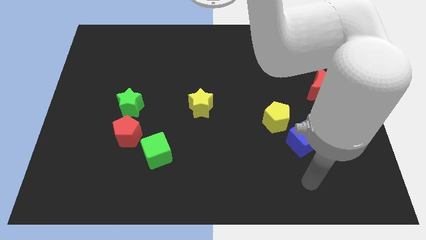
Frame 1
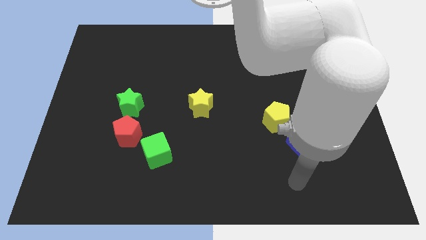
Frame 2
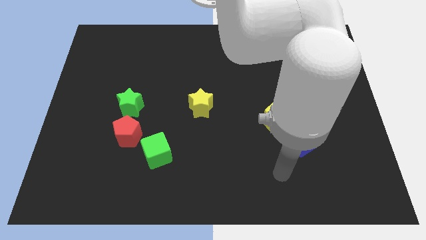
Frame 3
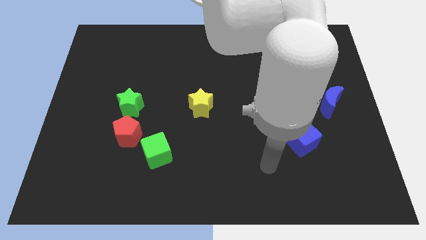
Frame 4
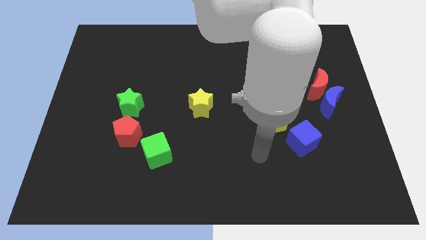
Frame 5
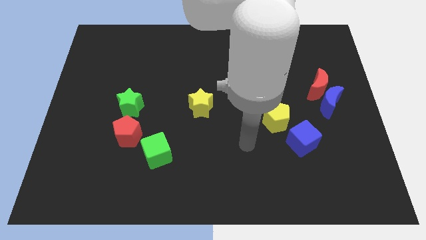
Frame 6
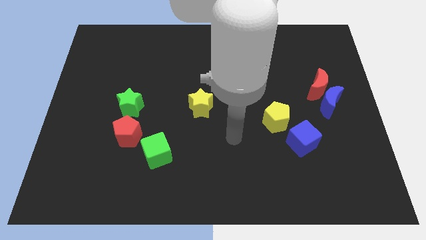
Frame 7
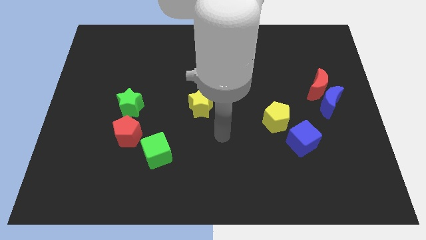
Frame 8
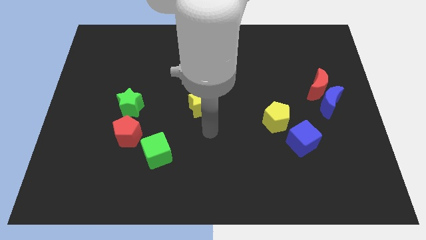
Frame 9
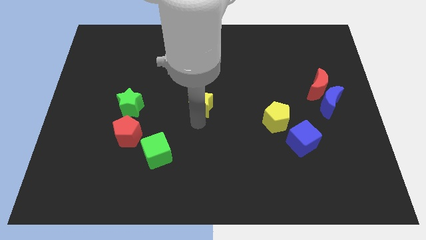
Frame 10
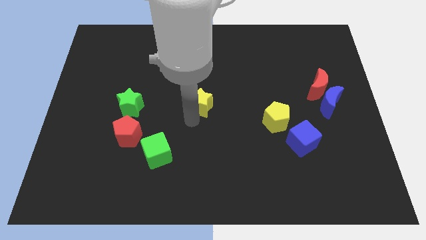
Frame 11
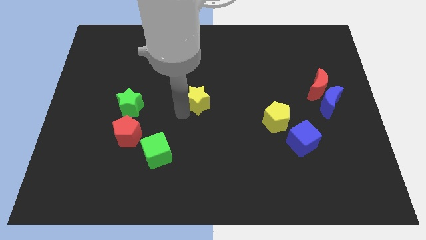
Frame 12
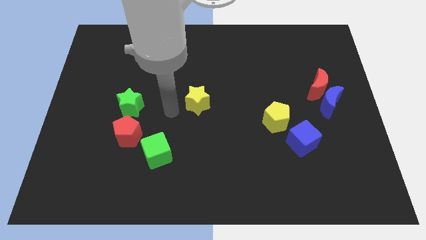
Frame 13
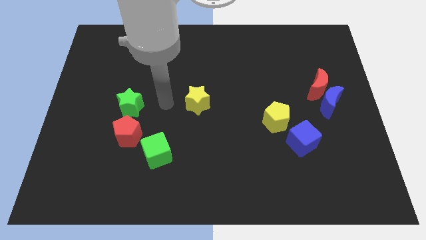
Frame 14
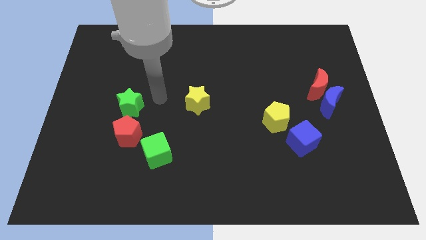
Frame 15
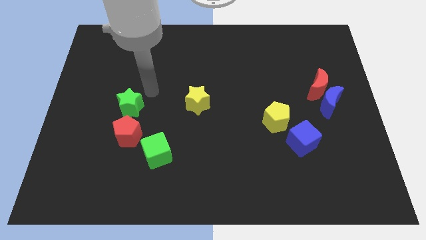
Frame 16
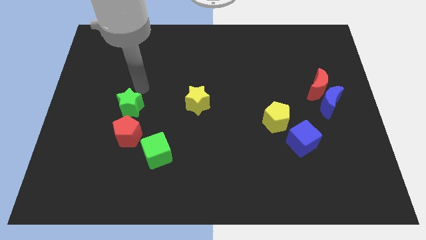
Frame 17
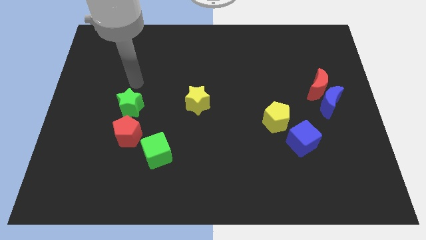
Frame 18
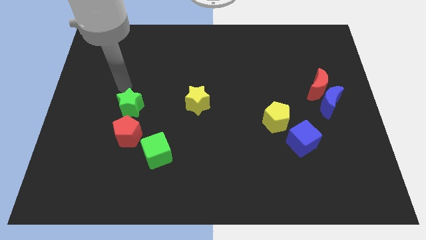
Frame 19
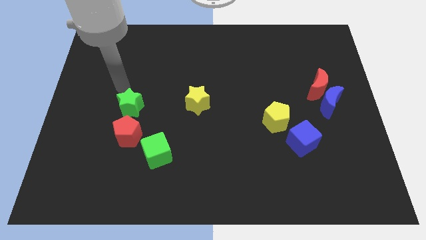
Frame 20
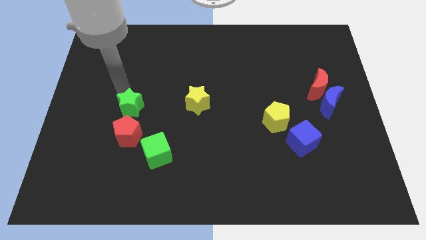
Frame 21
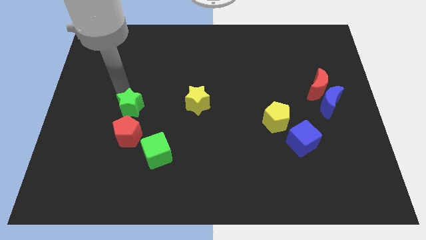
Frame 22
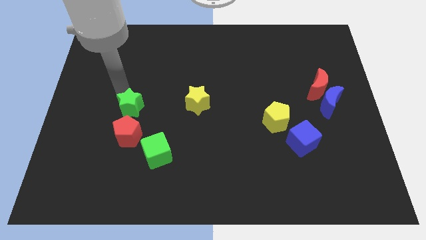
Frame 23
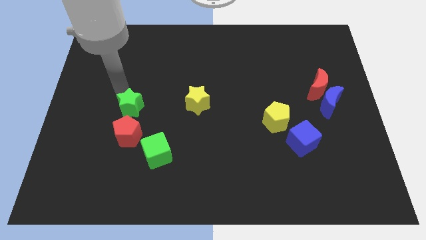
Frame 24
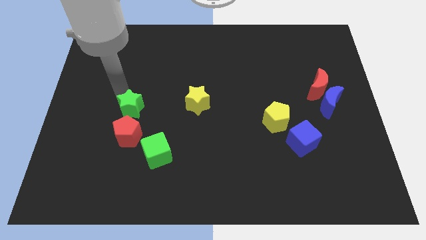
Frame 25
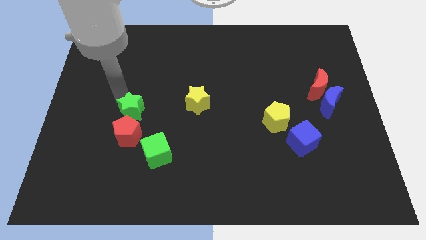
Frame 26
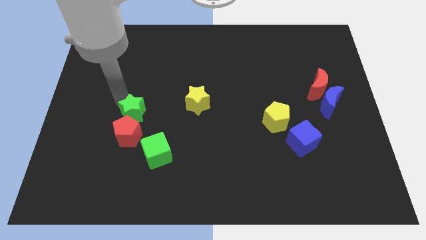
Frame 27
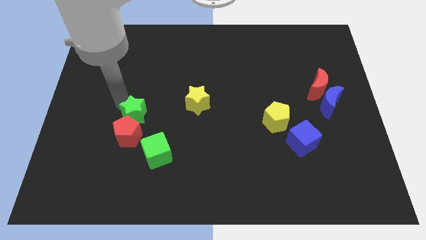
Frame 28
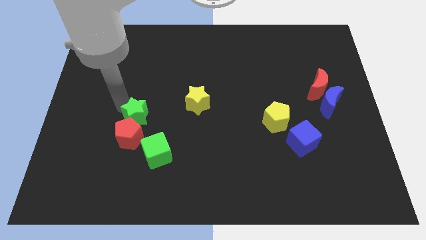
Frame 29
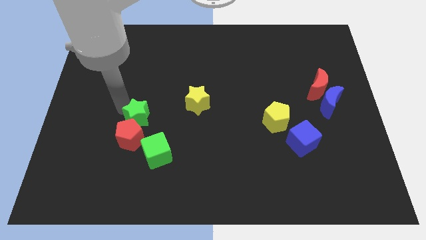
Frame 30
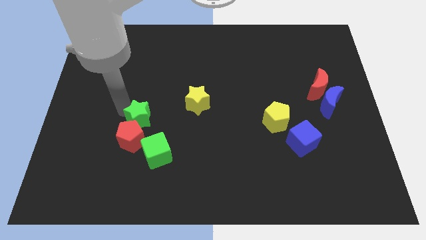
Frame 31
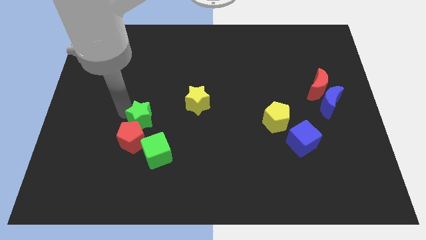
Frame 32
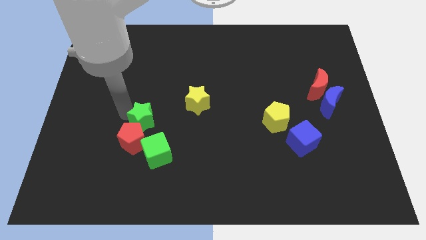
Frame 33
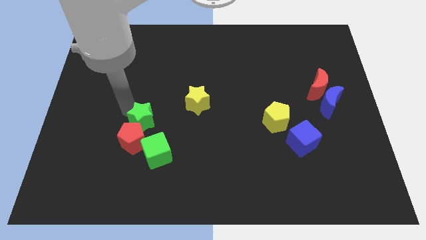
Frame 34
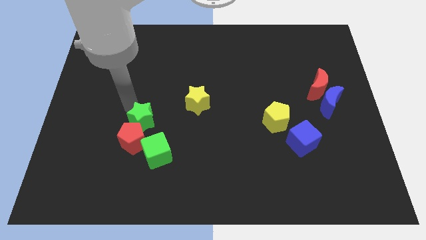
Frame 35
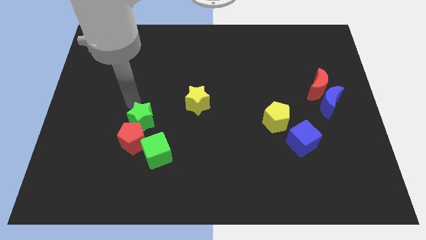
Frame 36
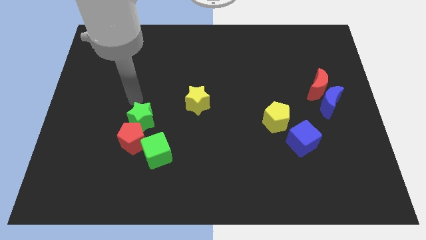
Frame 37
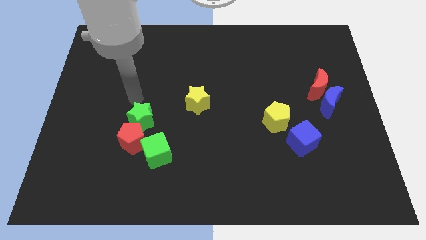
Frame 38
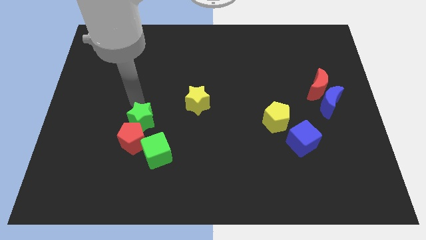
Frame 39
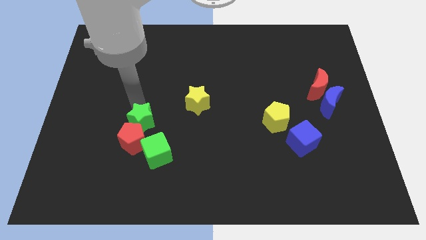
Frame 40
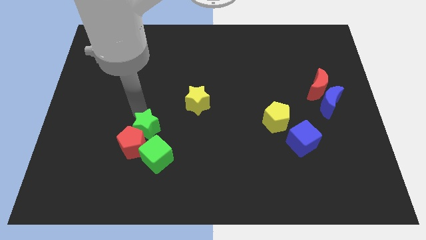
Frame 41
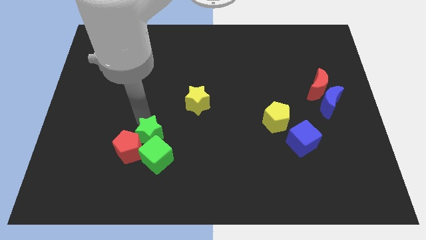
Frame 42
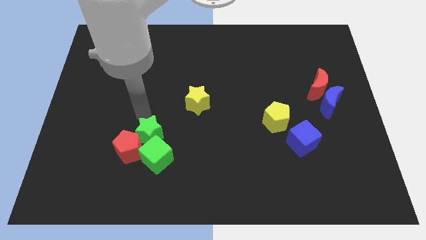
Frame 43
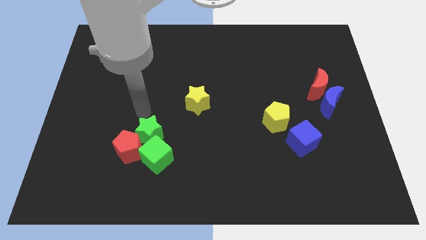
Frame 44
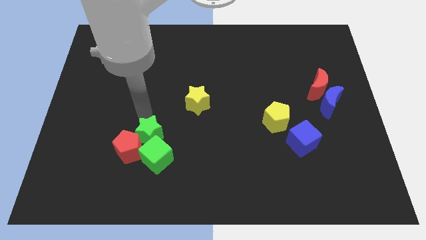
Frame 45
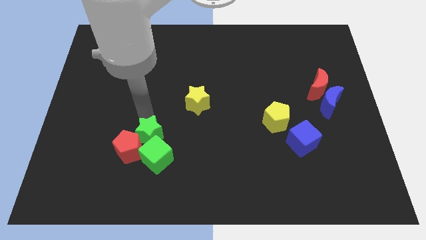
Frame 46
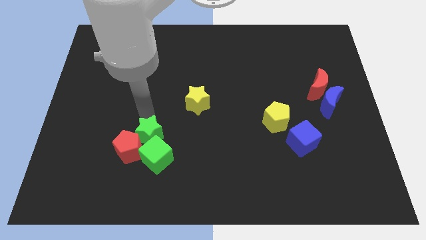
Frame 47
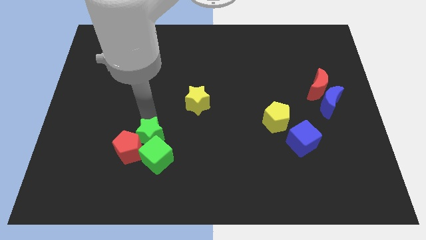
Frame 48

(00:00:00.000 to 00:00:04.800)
push the green star towards the green cube

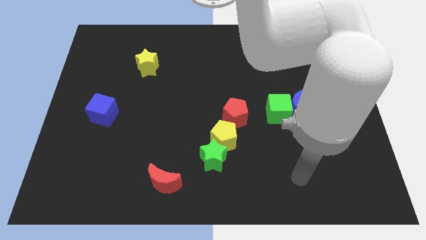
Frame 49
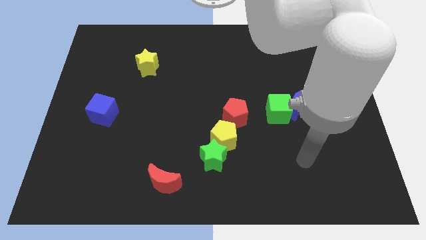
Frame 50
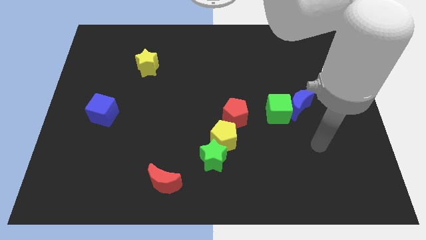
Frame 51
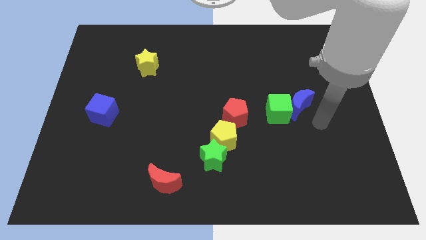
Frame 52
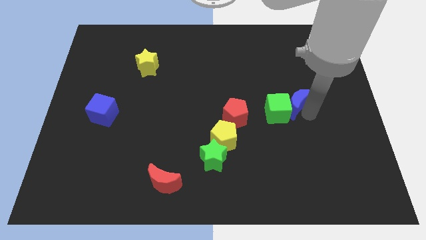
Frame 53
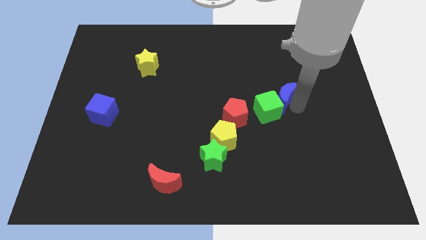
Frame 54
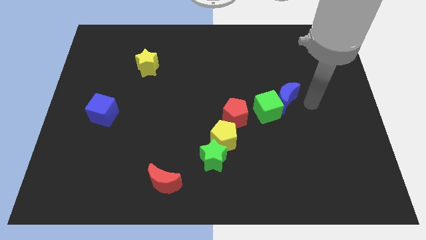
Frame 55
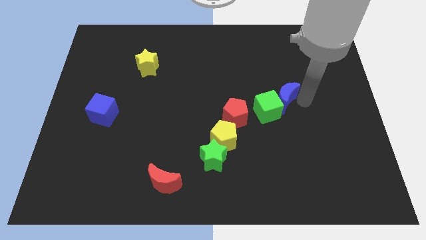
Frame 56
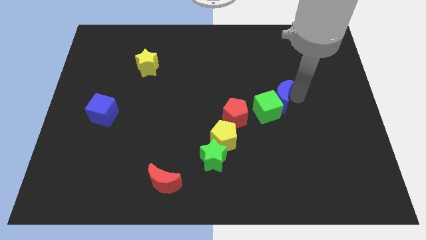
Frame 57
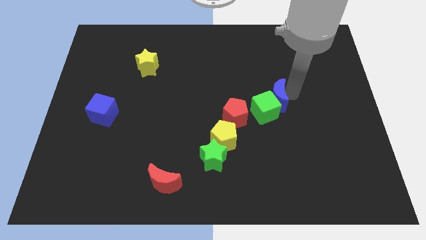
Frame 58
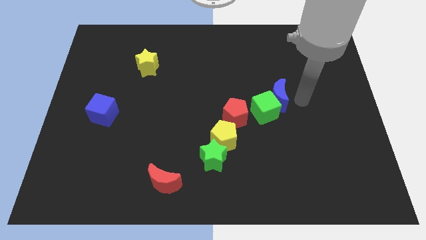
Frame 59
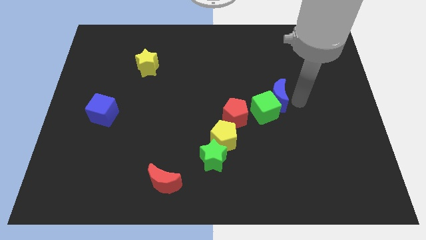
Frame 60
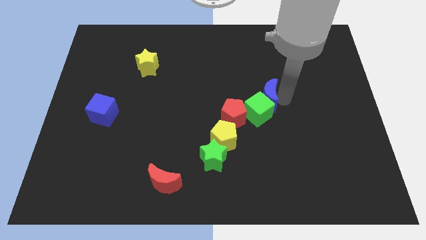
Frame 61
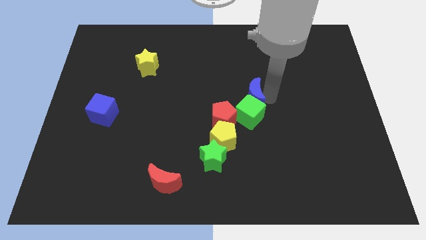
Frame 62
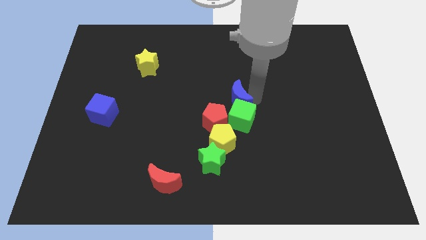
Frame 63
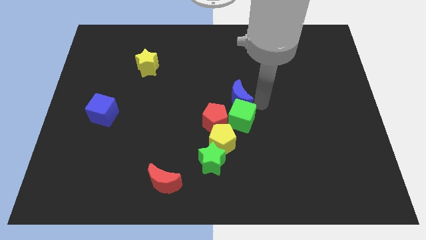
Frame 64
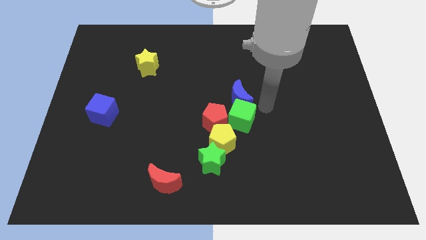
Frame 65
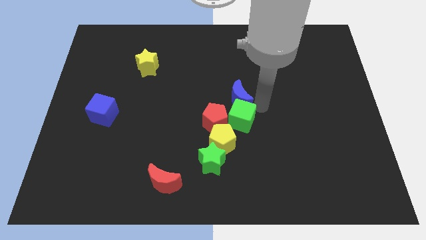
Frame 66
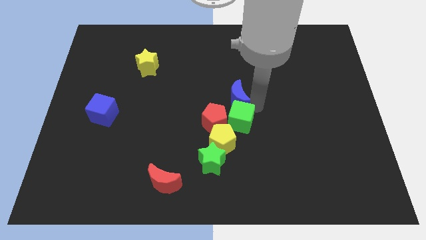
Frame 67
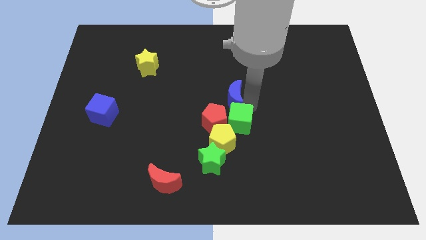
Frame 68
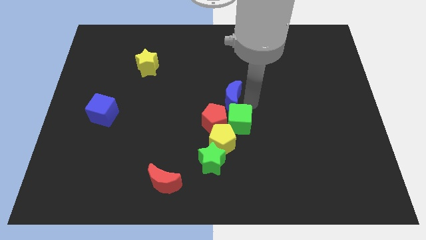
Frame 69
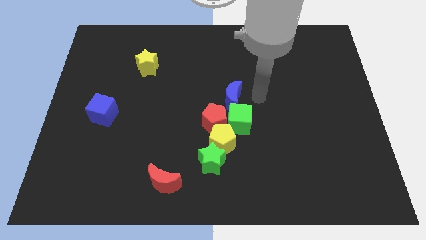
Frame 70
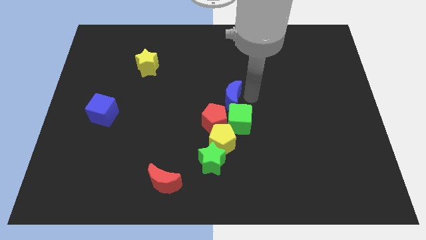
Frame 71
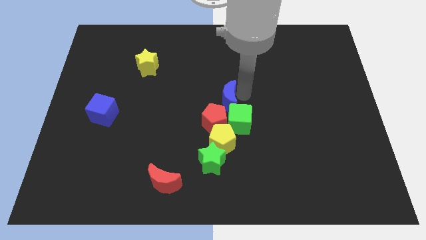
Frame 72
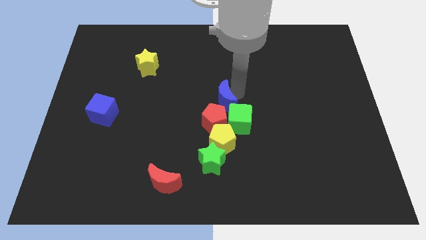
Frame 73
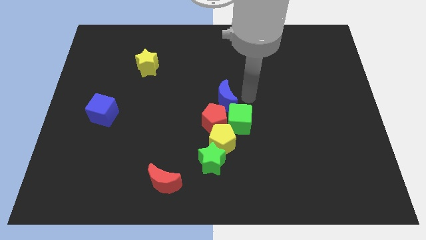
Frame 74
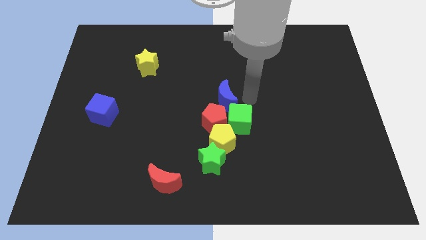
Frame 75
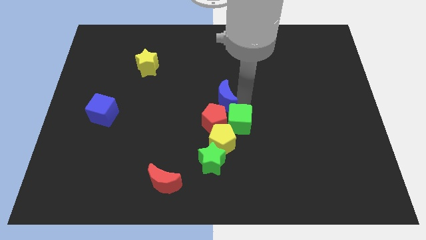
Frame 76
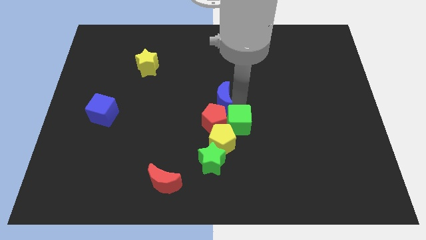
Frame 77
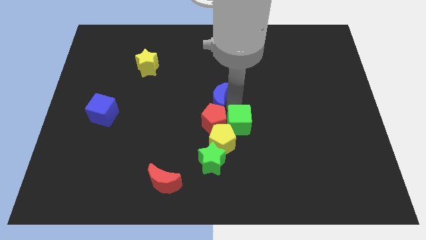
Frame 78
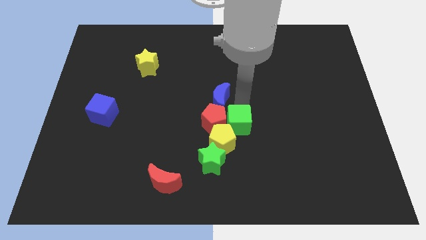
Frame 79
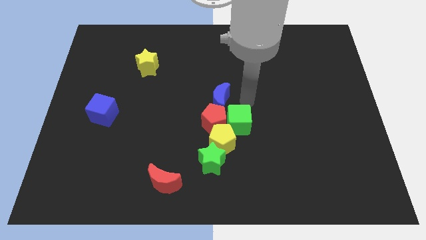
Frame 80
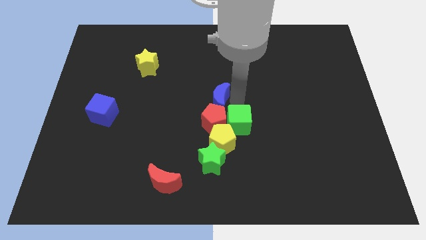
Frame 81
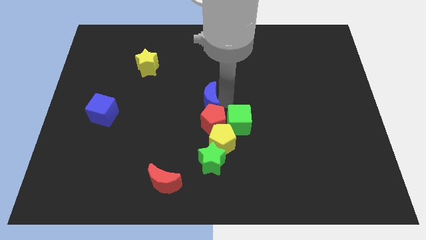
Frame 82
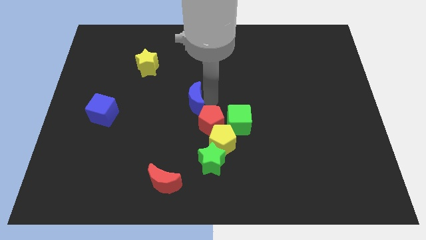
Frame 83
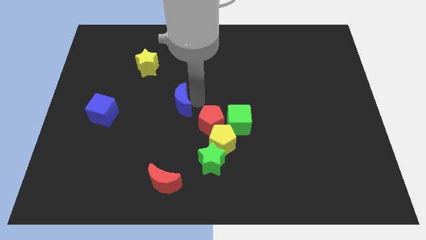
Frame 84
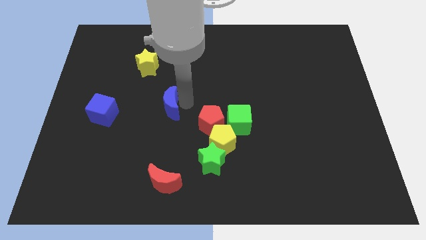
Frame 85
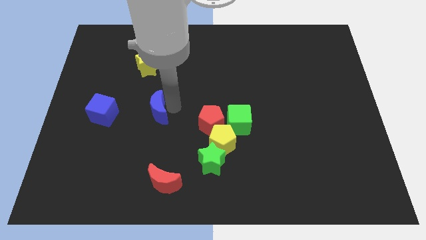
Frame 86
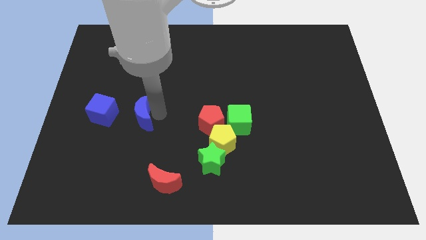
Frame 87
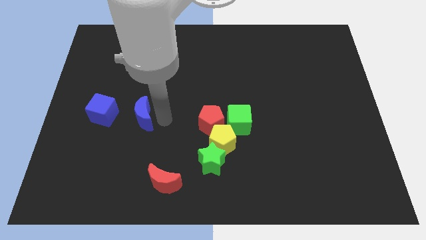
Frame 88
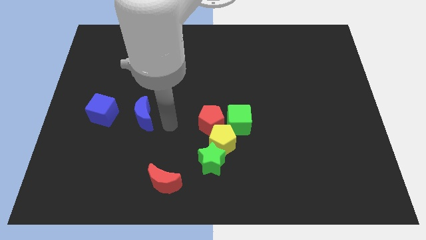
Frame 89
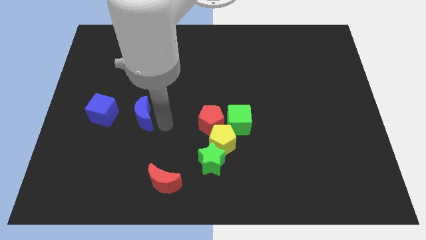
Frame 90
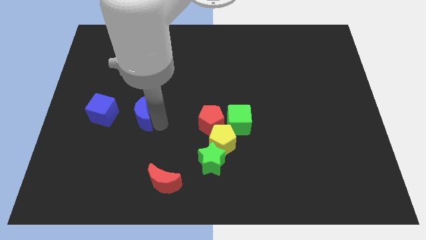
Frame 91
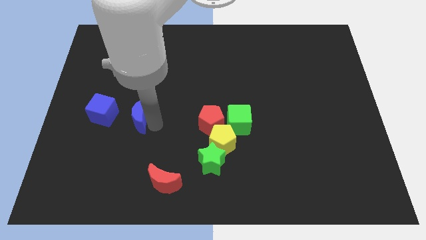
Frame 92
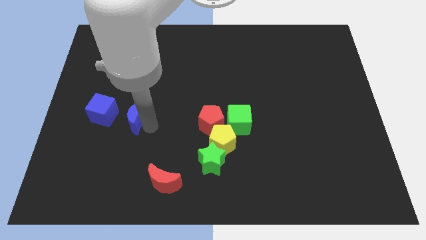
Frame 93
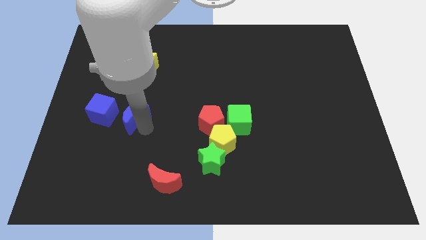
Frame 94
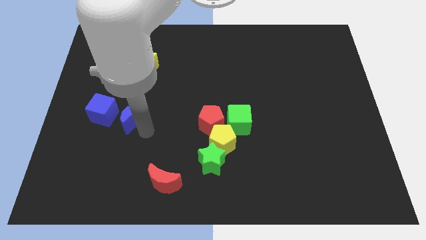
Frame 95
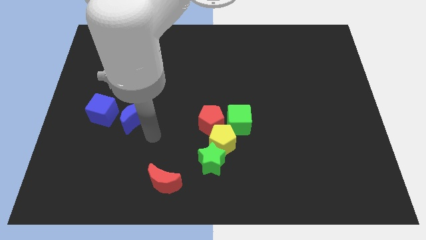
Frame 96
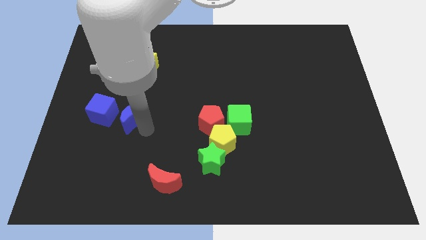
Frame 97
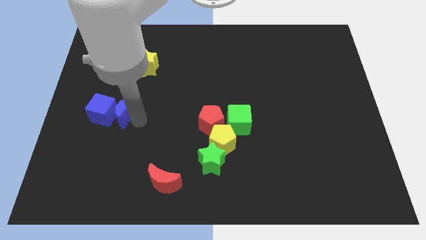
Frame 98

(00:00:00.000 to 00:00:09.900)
put the blue moon towards the blue cube
